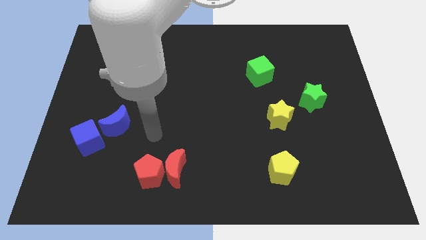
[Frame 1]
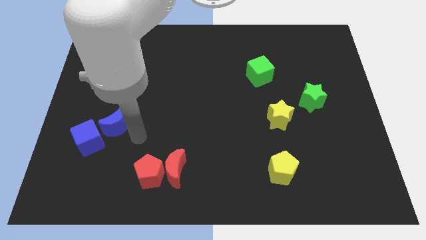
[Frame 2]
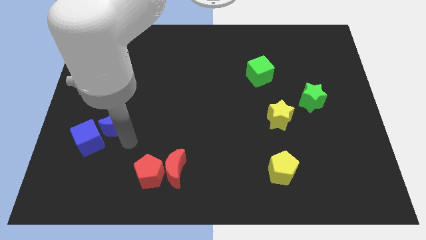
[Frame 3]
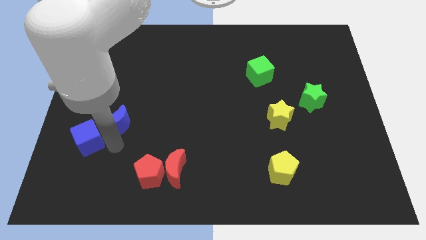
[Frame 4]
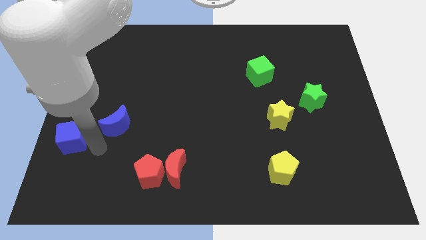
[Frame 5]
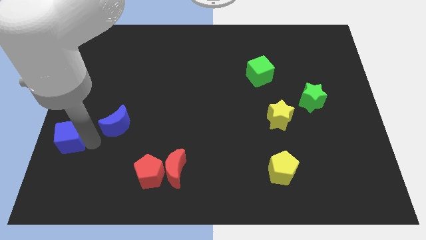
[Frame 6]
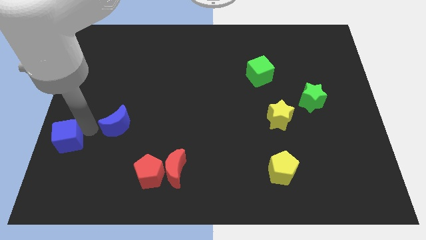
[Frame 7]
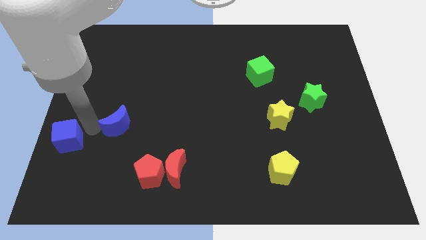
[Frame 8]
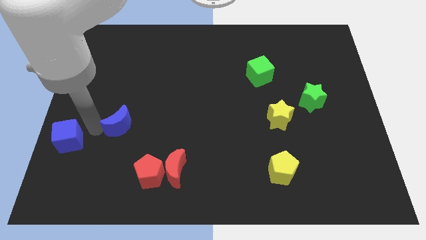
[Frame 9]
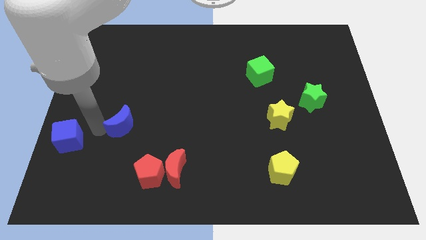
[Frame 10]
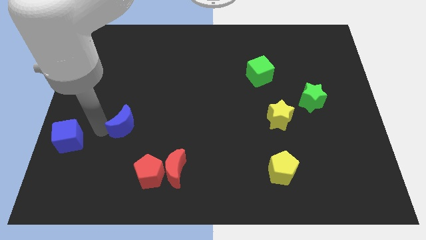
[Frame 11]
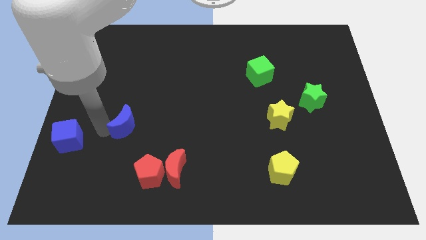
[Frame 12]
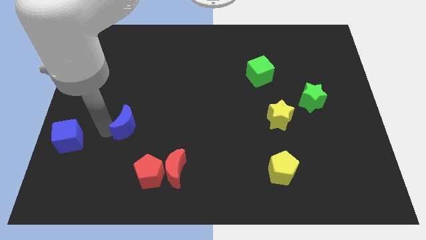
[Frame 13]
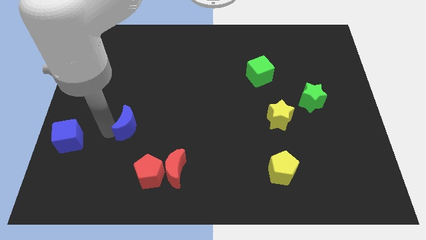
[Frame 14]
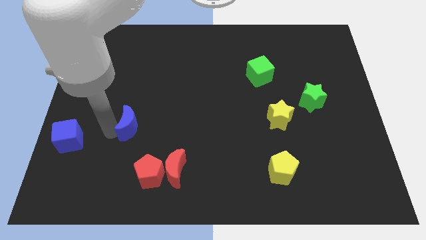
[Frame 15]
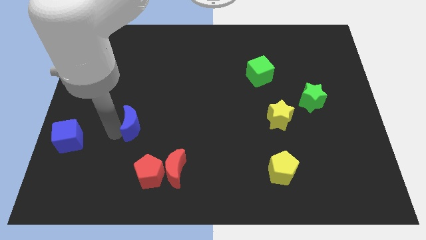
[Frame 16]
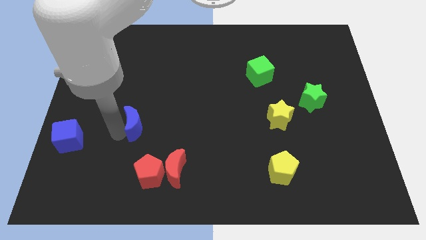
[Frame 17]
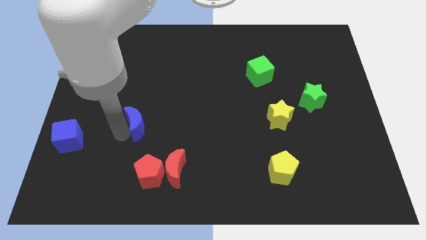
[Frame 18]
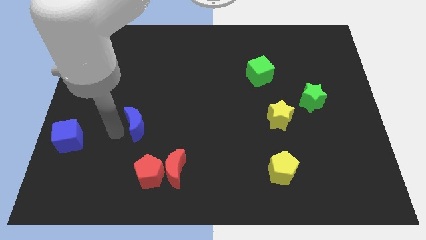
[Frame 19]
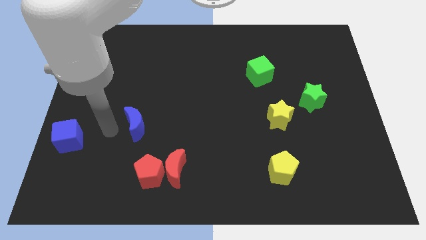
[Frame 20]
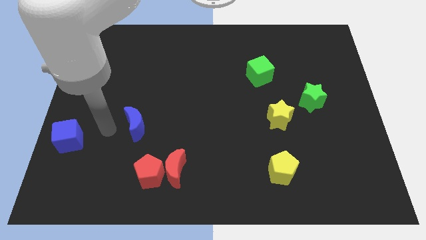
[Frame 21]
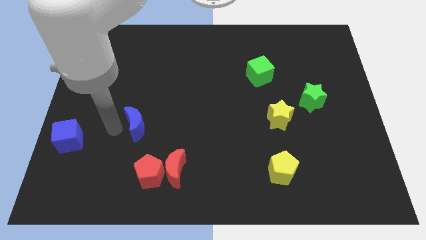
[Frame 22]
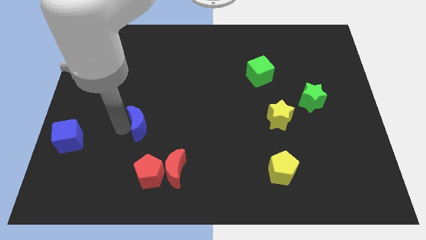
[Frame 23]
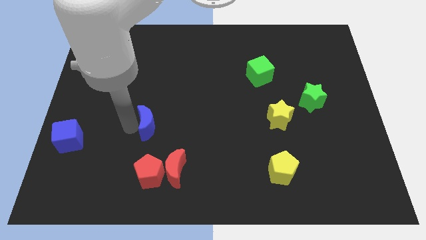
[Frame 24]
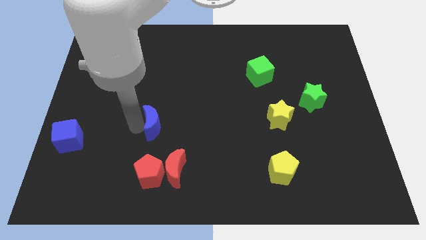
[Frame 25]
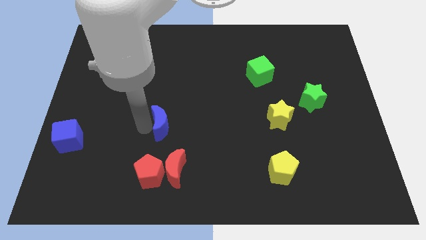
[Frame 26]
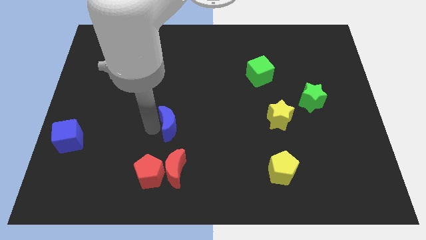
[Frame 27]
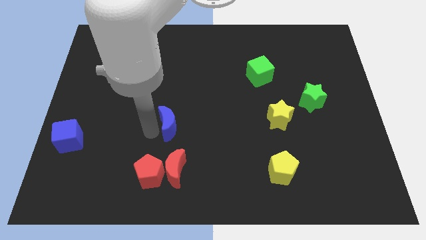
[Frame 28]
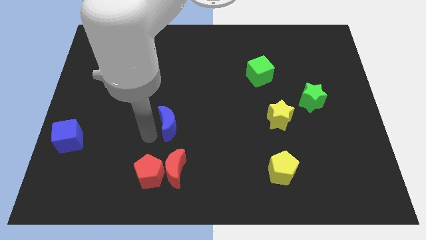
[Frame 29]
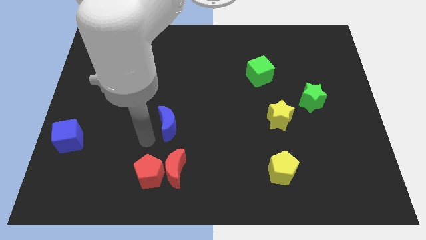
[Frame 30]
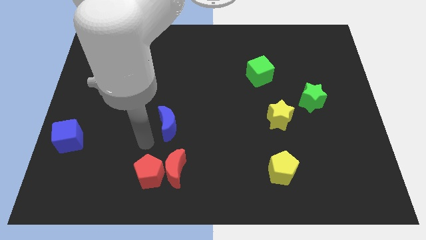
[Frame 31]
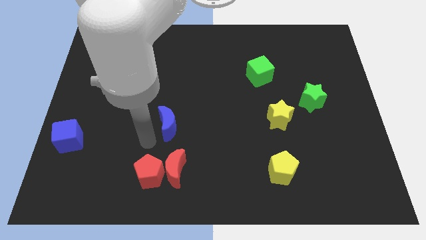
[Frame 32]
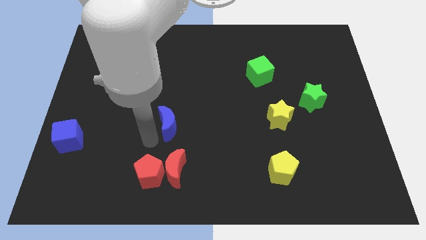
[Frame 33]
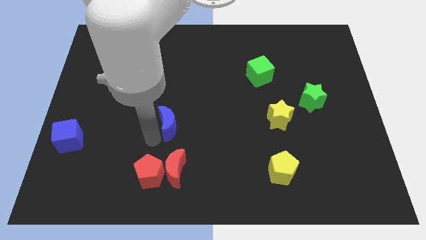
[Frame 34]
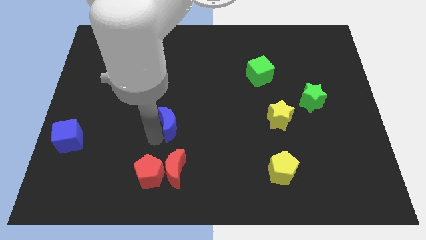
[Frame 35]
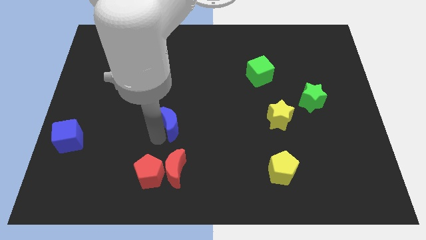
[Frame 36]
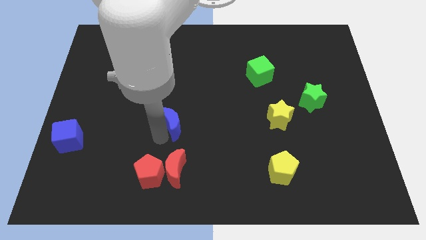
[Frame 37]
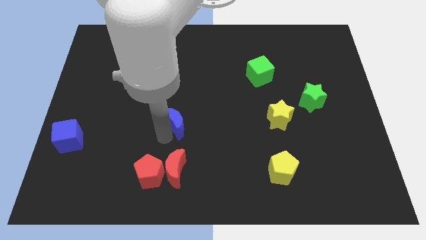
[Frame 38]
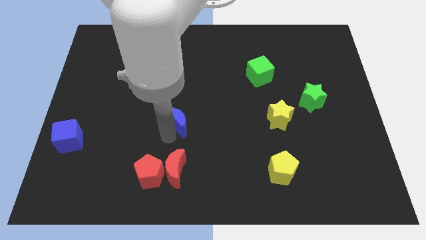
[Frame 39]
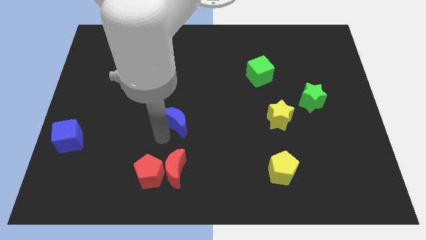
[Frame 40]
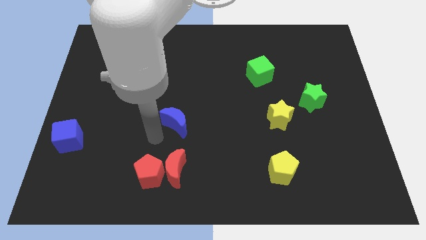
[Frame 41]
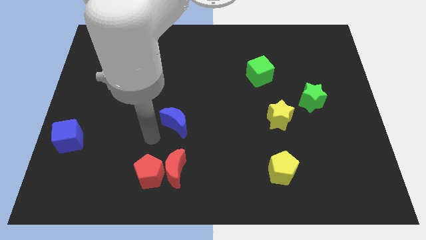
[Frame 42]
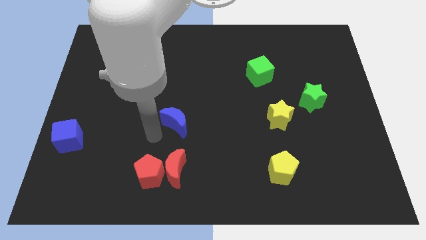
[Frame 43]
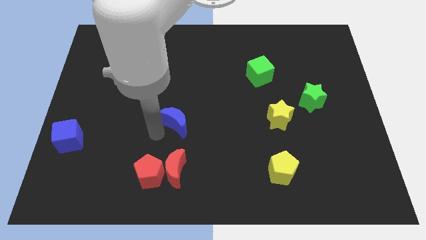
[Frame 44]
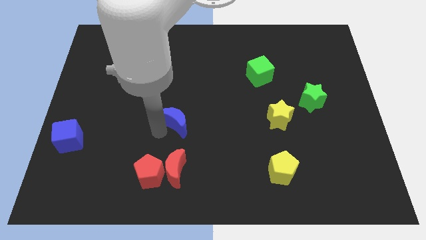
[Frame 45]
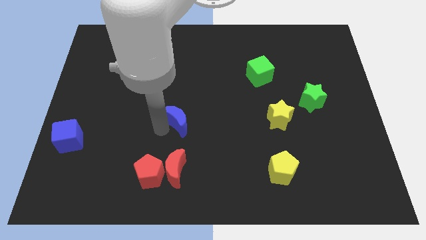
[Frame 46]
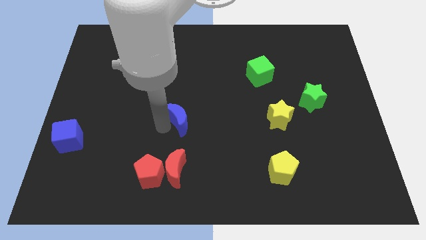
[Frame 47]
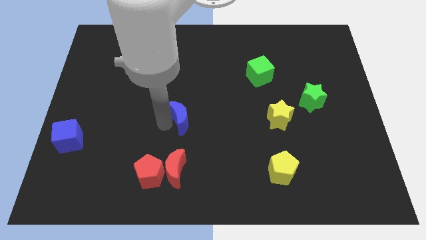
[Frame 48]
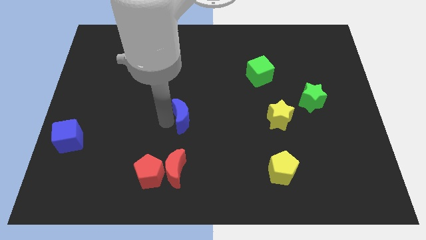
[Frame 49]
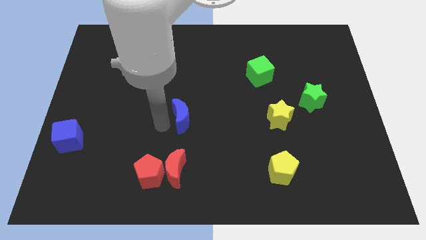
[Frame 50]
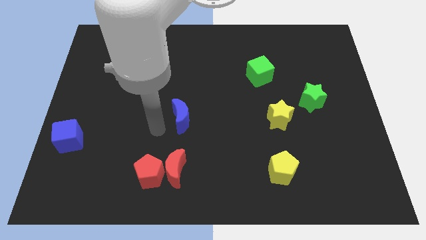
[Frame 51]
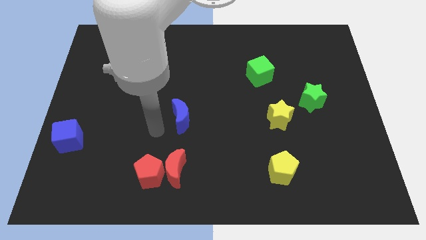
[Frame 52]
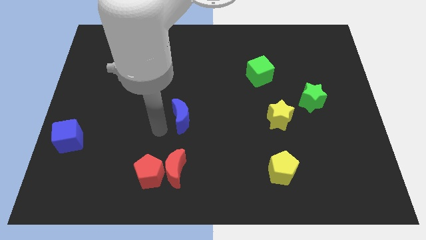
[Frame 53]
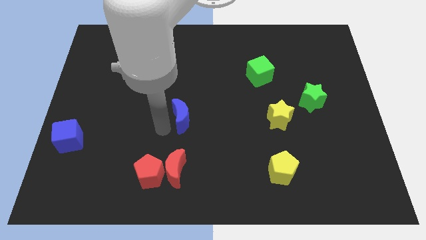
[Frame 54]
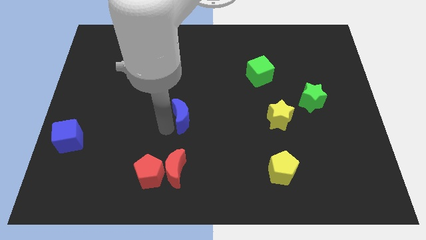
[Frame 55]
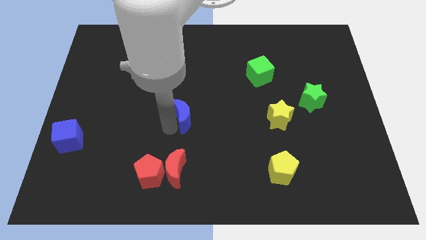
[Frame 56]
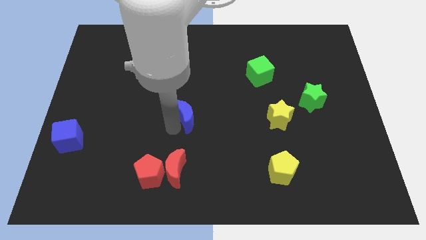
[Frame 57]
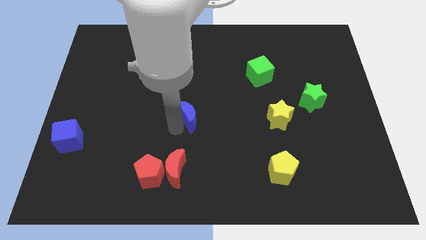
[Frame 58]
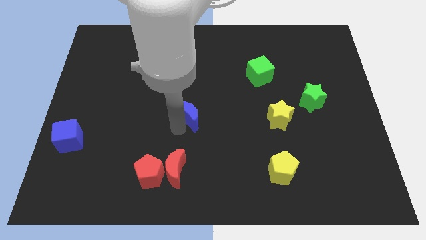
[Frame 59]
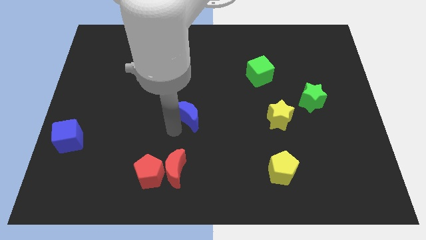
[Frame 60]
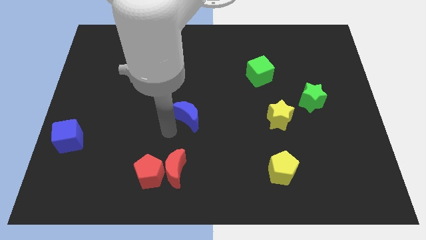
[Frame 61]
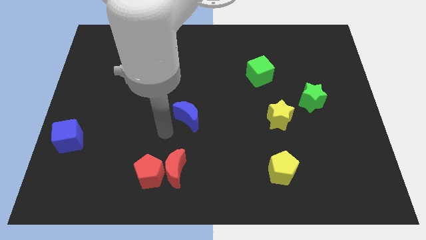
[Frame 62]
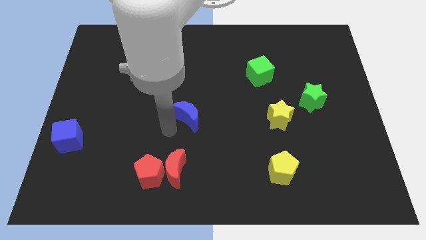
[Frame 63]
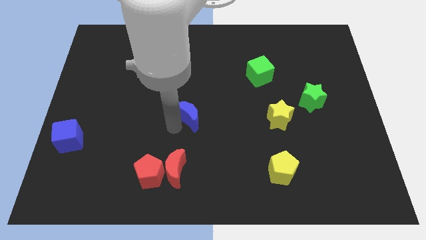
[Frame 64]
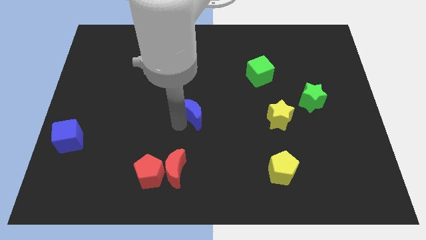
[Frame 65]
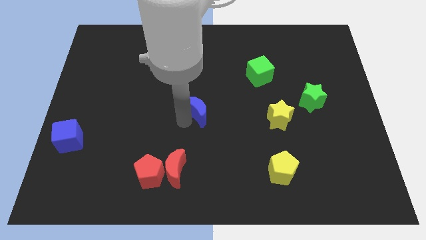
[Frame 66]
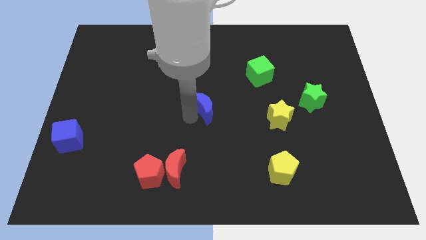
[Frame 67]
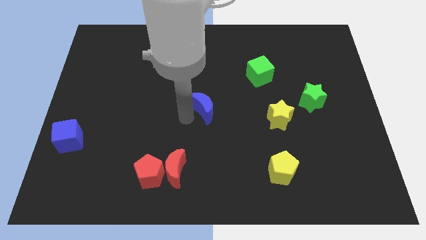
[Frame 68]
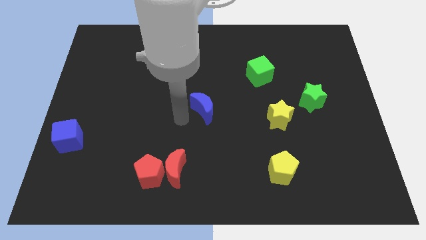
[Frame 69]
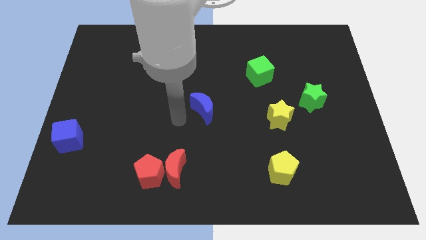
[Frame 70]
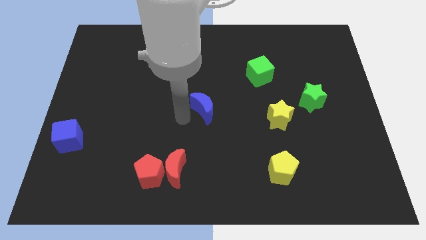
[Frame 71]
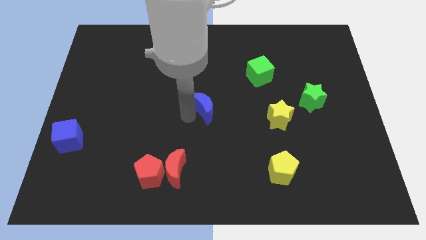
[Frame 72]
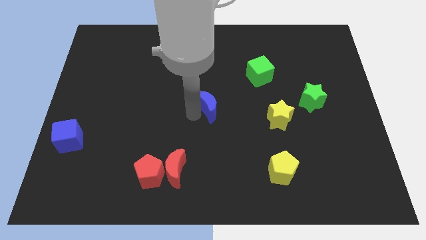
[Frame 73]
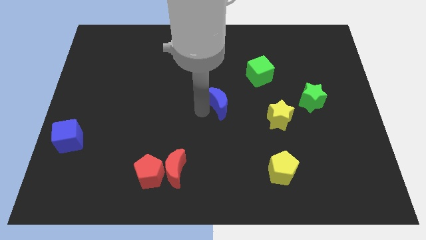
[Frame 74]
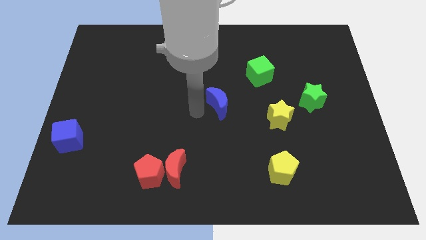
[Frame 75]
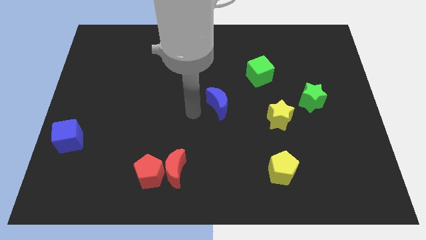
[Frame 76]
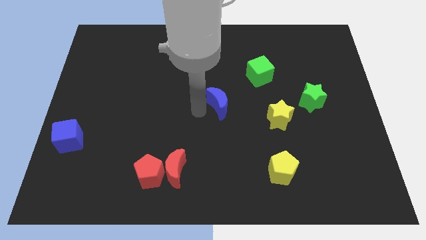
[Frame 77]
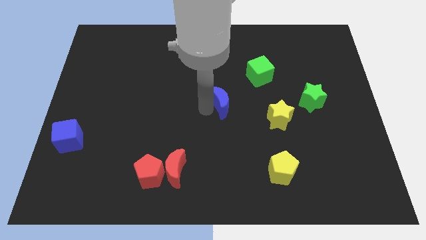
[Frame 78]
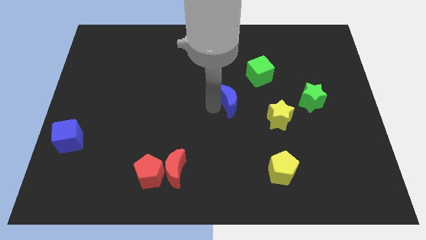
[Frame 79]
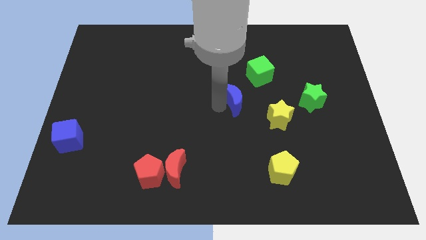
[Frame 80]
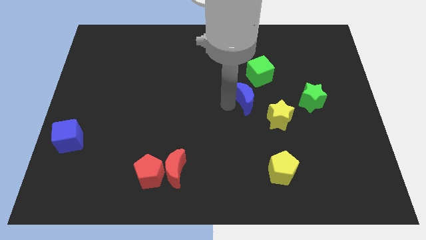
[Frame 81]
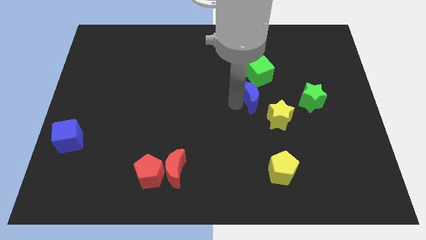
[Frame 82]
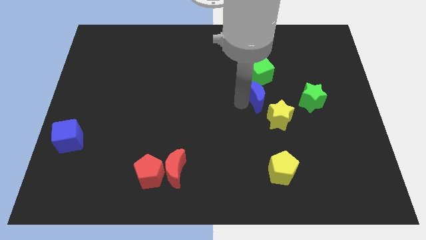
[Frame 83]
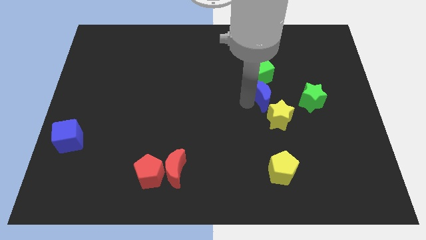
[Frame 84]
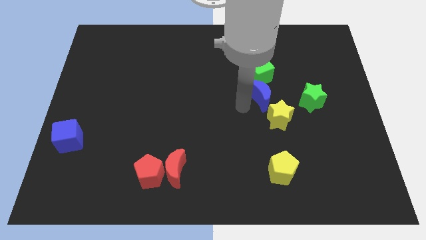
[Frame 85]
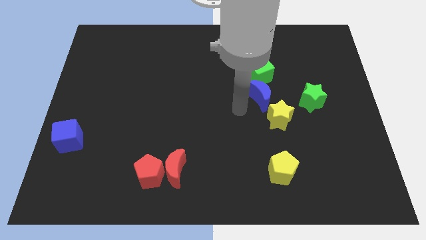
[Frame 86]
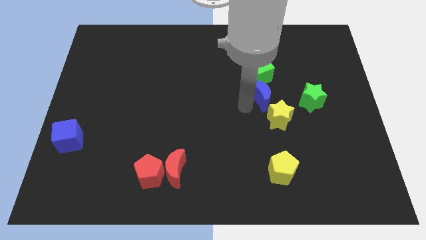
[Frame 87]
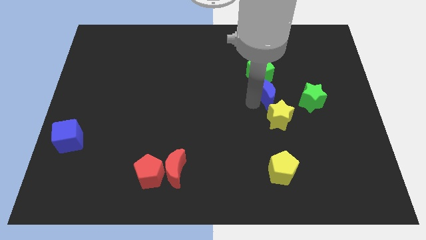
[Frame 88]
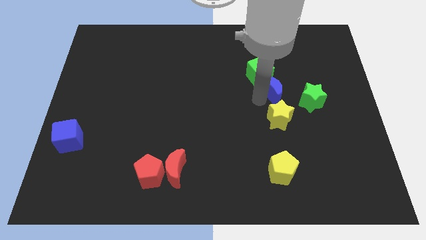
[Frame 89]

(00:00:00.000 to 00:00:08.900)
slide the blue moon diagonally up and to the left of the green star
